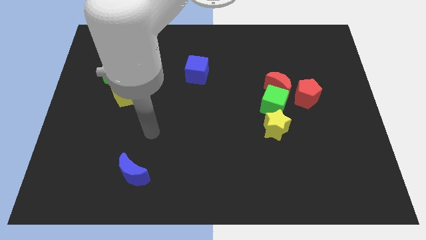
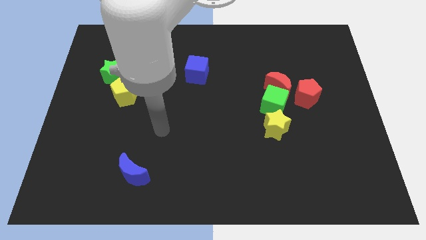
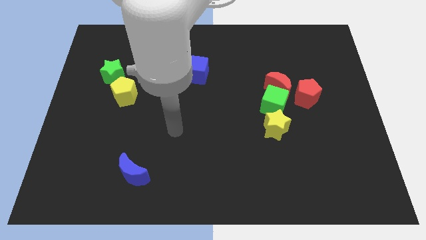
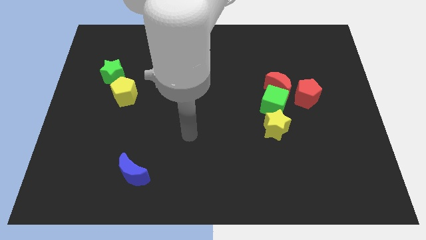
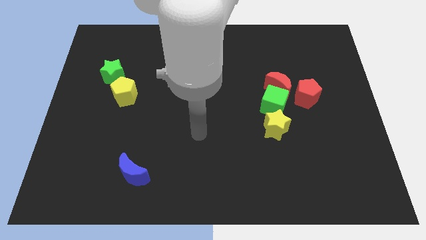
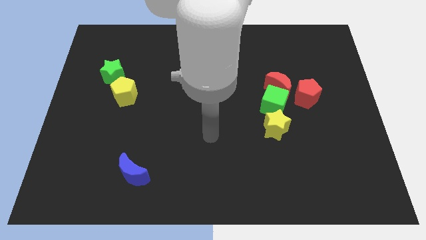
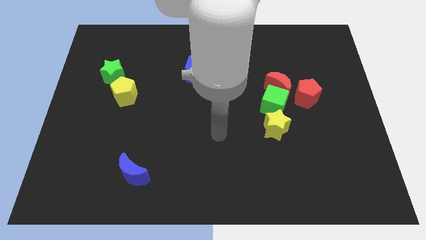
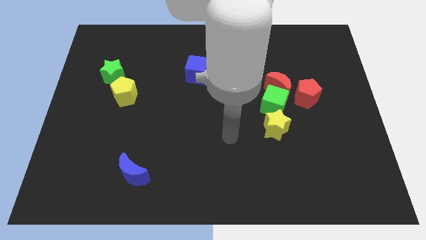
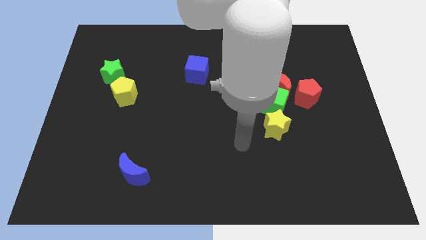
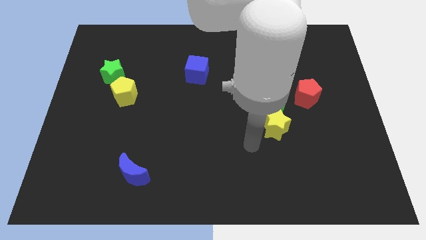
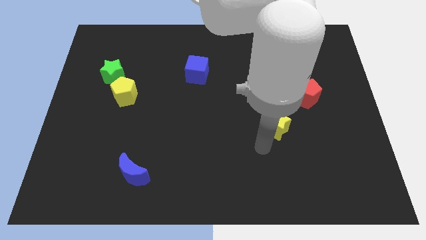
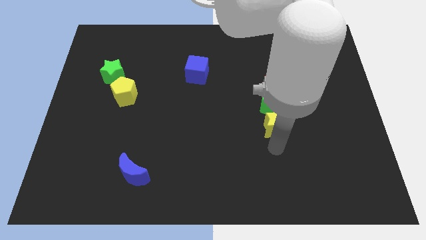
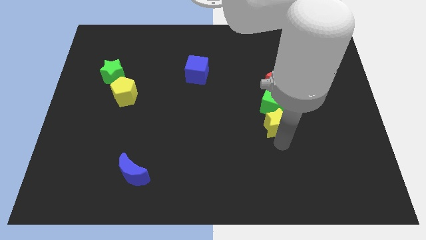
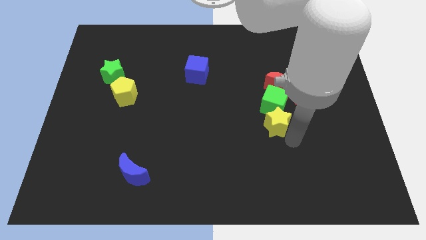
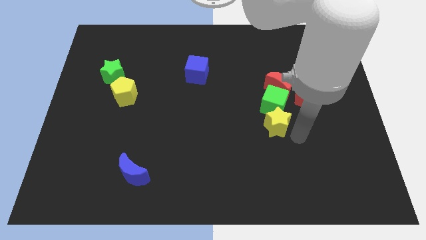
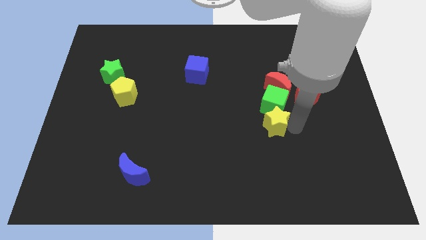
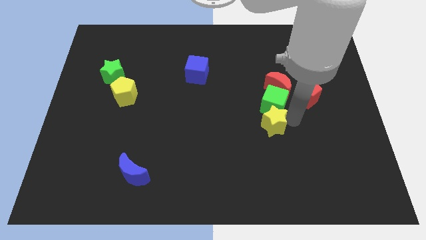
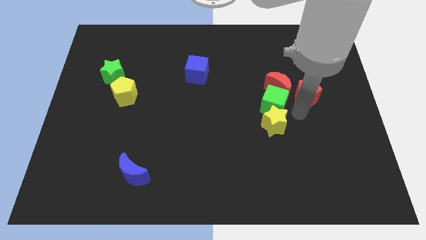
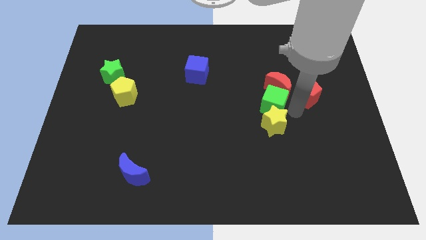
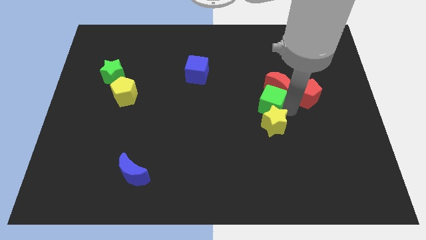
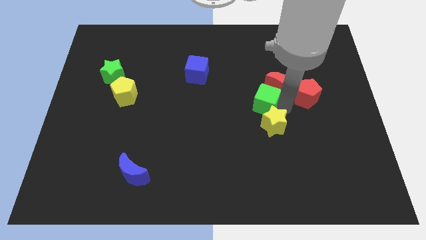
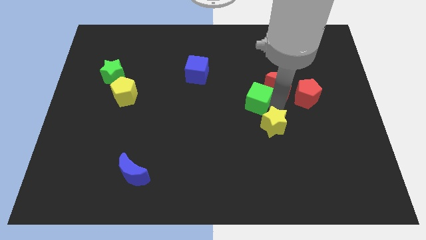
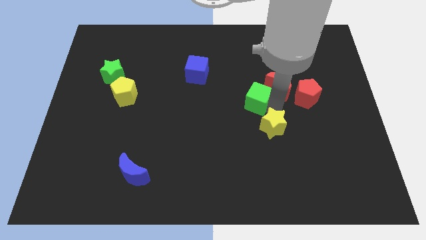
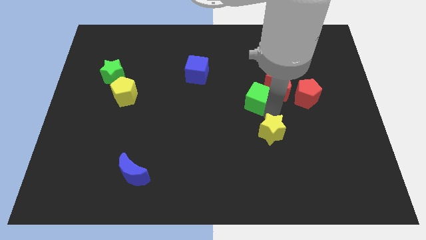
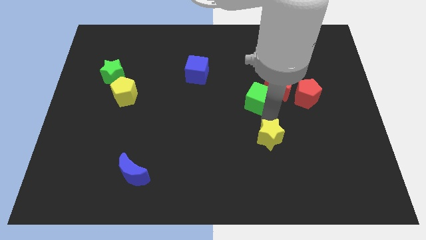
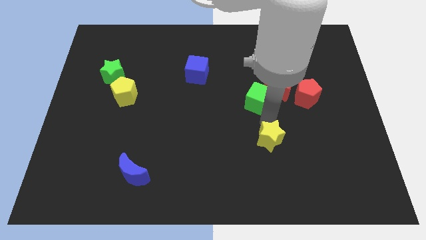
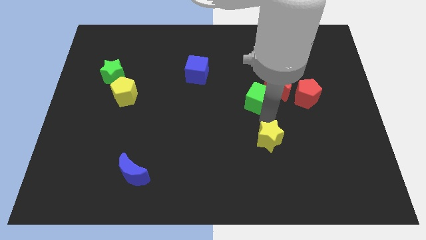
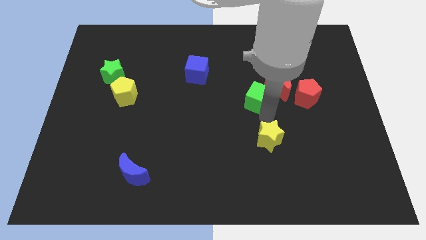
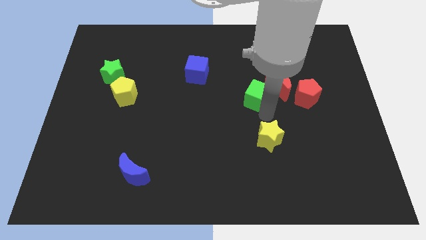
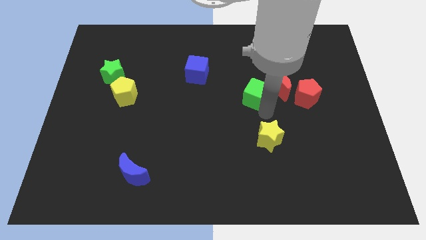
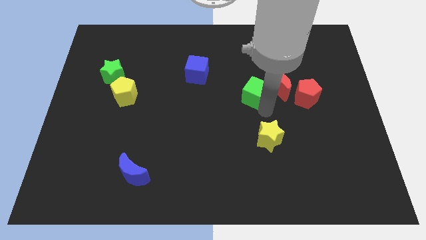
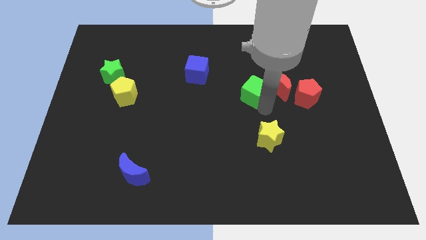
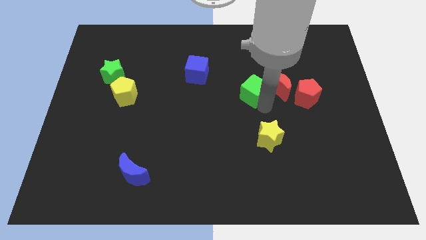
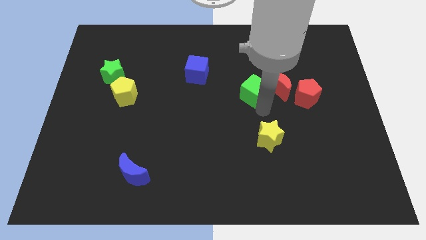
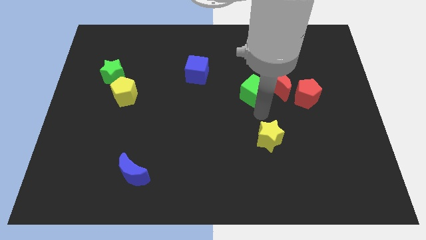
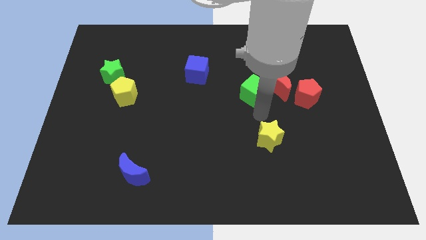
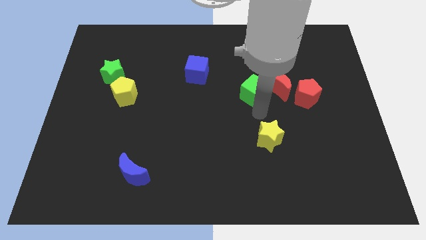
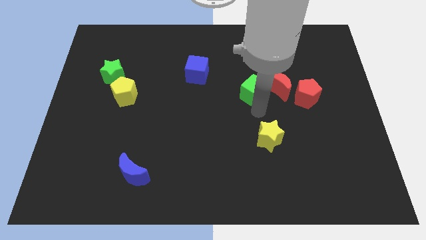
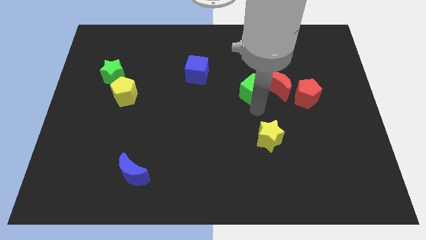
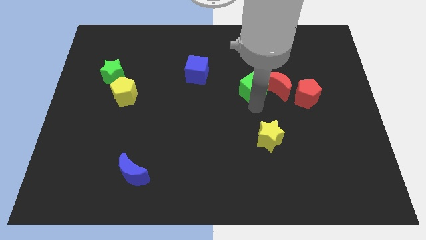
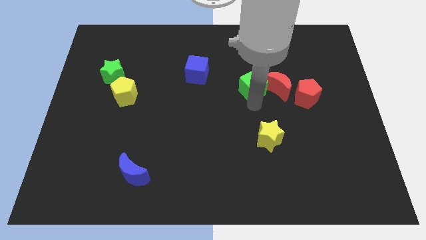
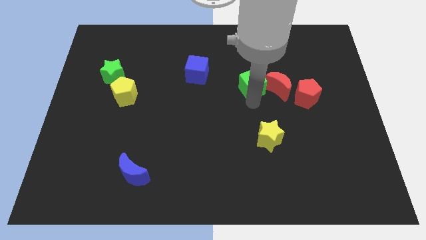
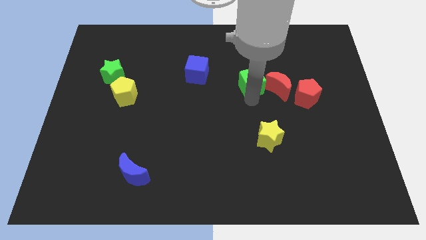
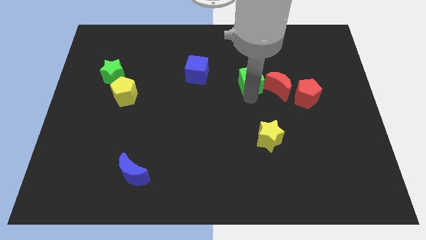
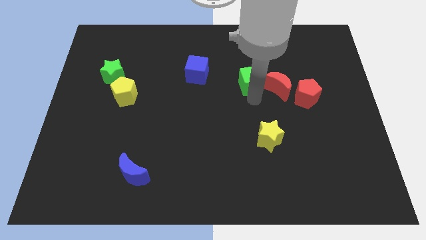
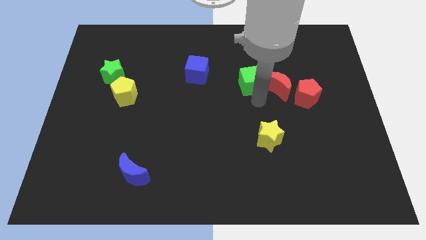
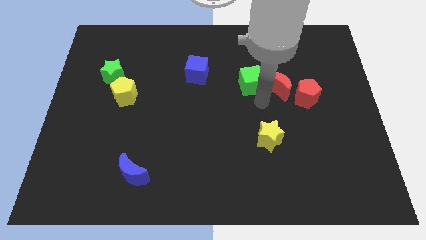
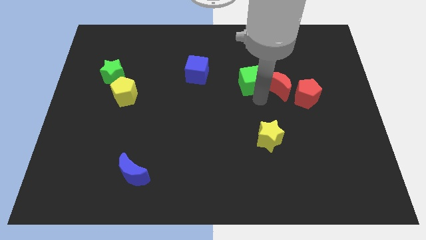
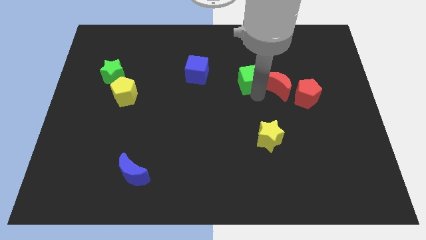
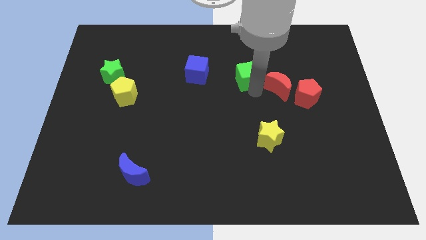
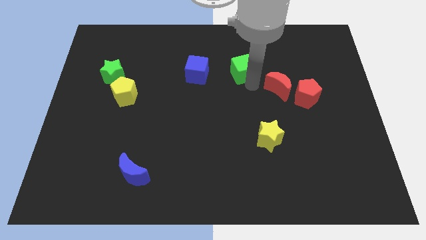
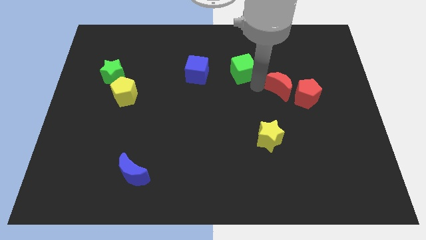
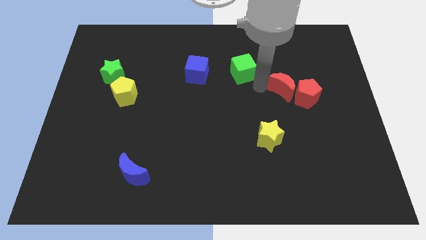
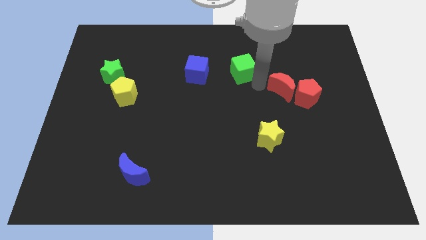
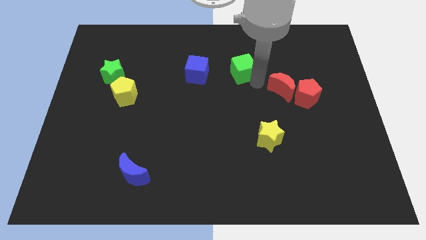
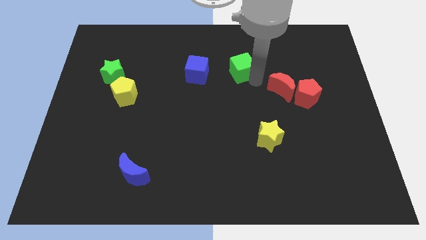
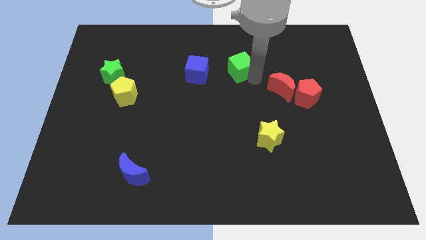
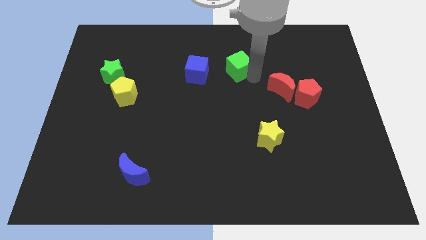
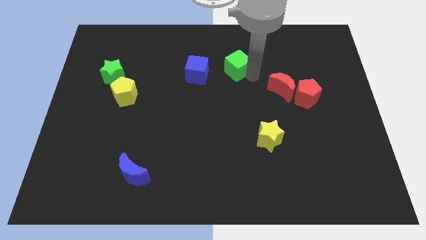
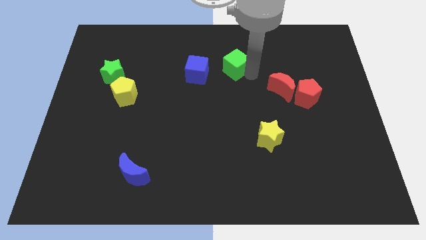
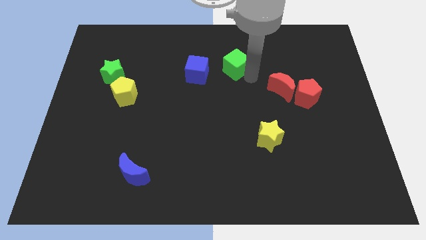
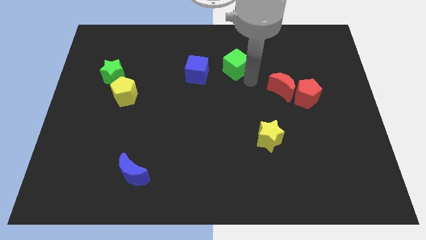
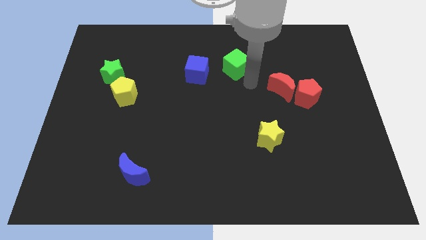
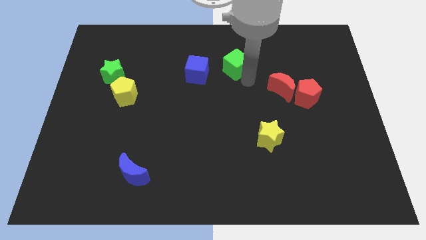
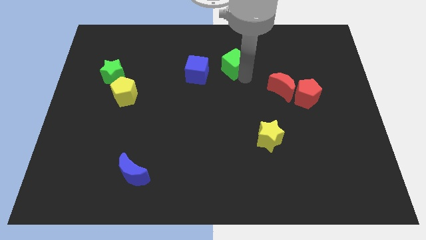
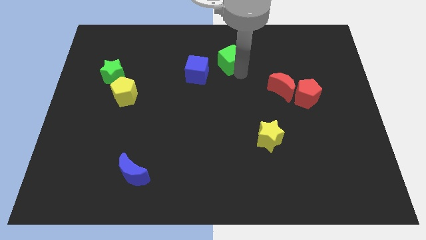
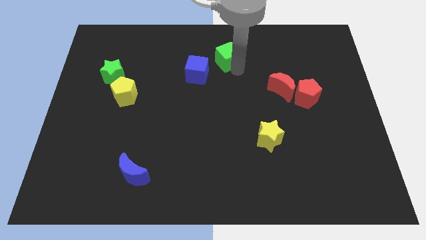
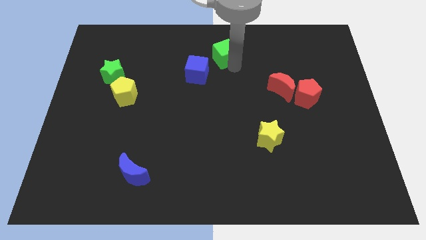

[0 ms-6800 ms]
put the green cube to the towards your base
